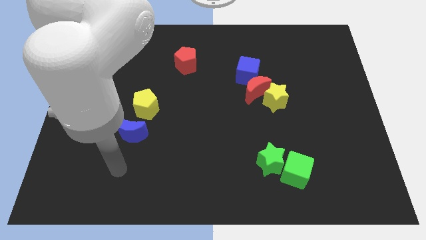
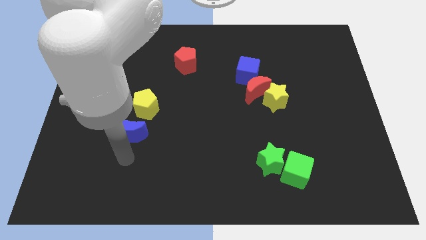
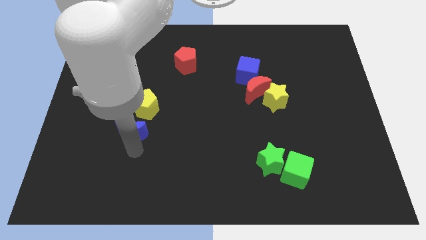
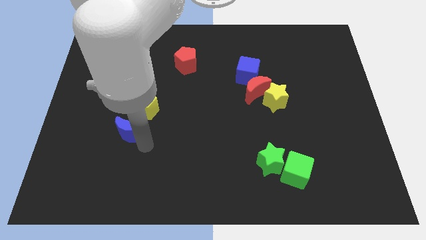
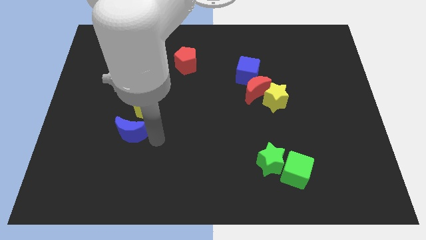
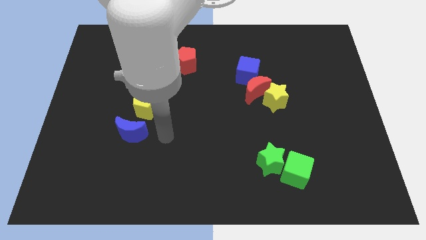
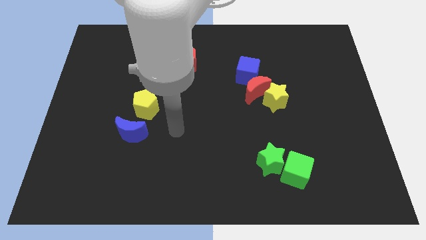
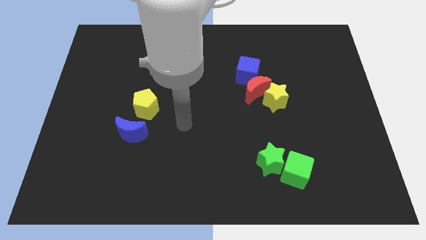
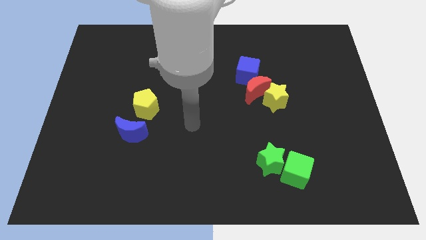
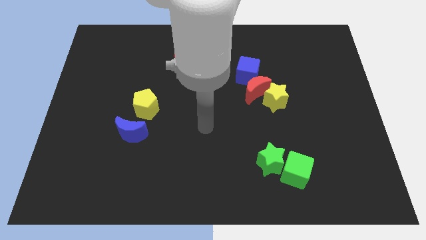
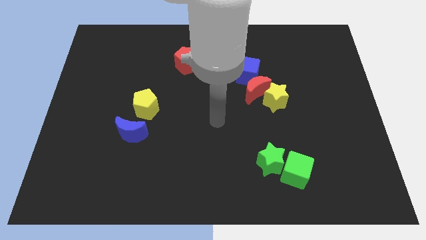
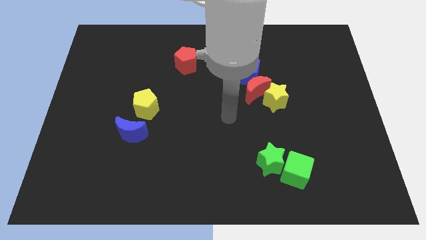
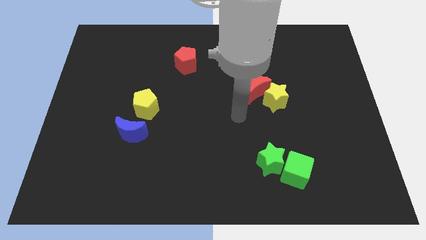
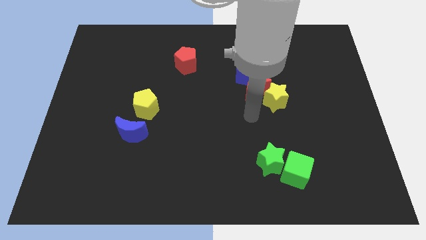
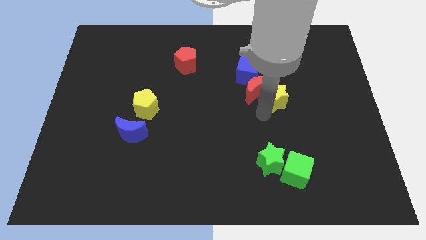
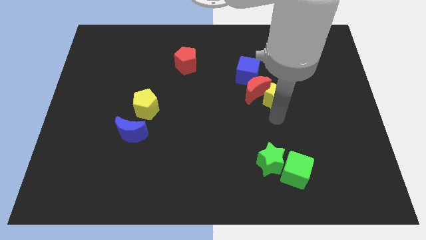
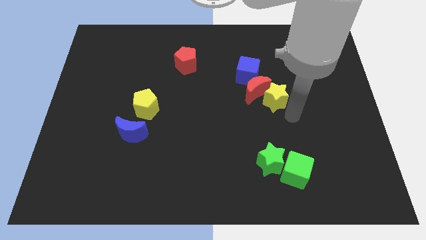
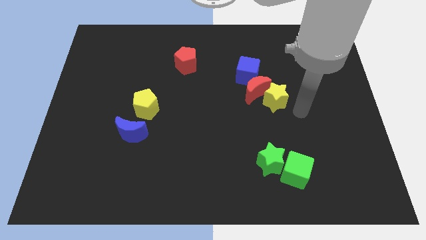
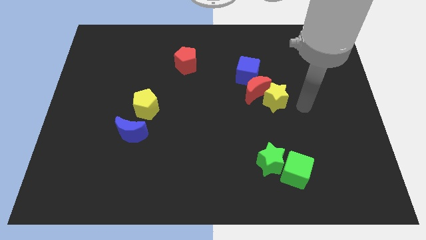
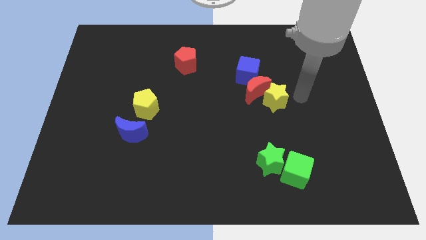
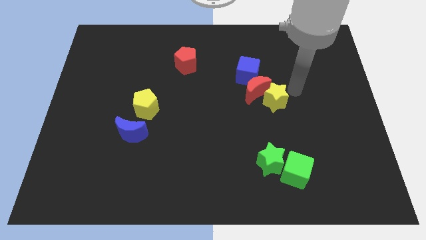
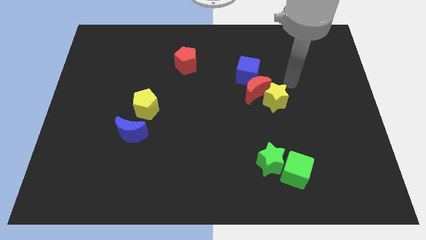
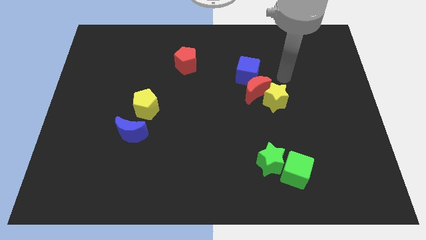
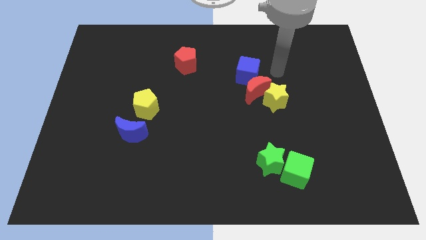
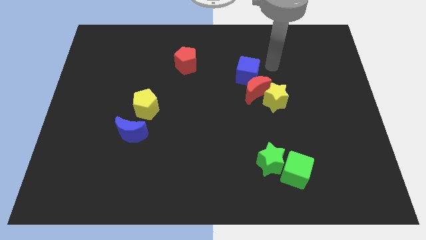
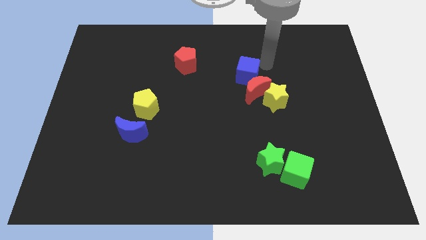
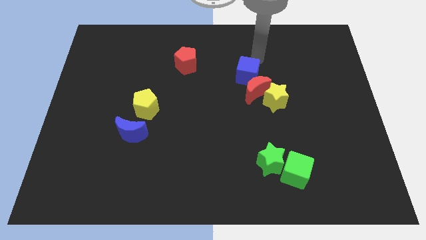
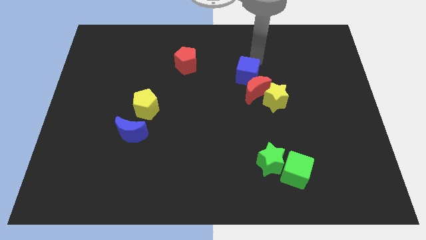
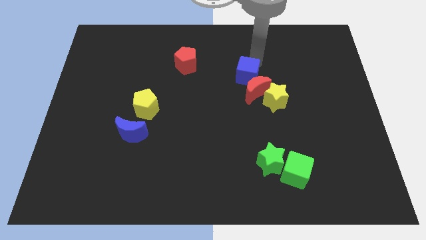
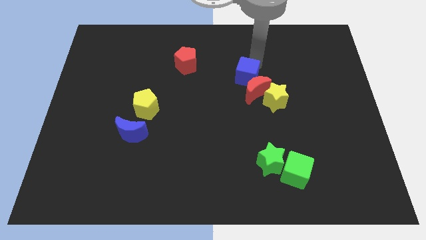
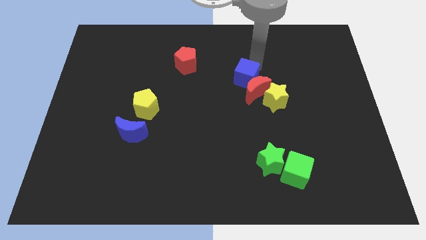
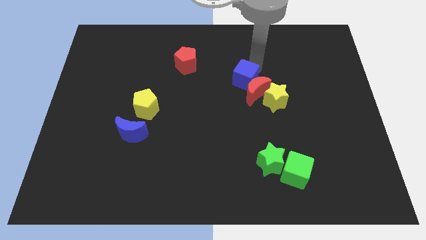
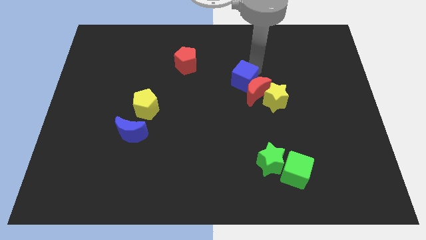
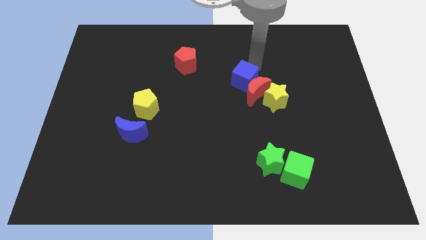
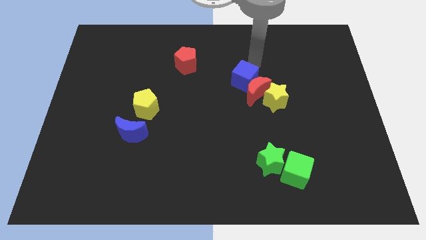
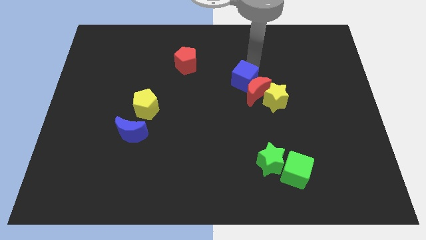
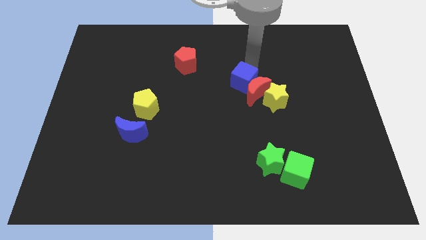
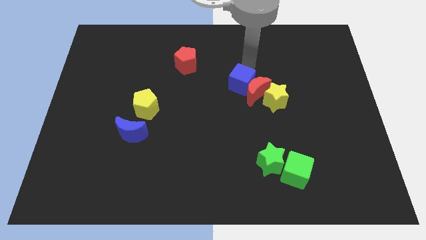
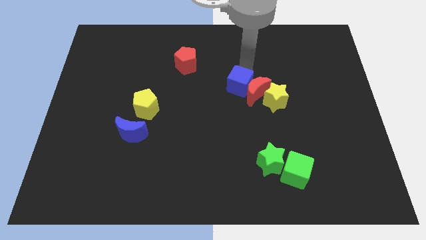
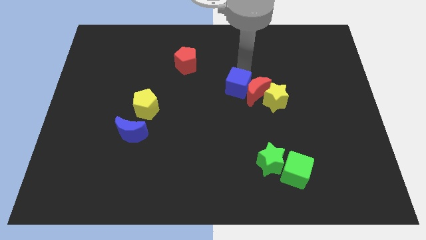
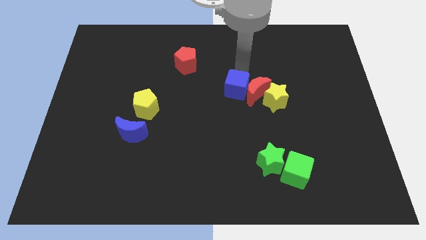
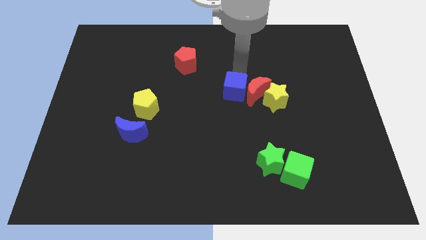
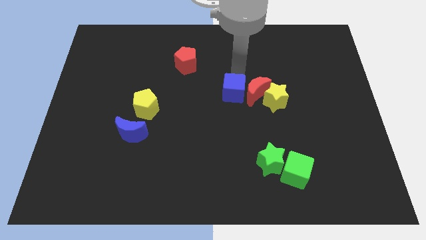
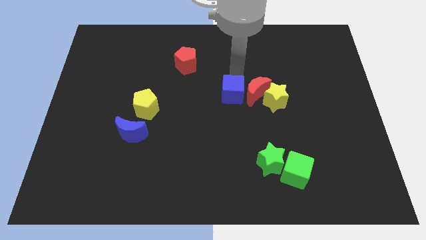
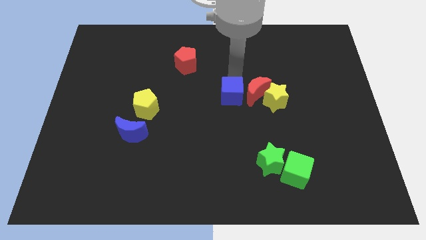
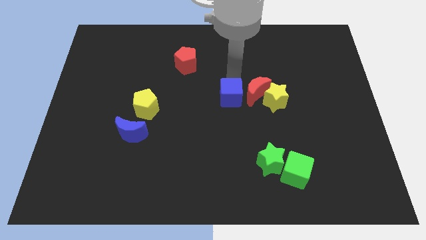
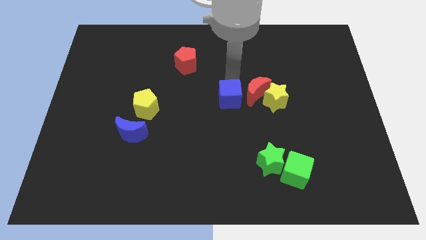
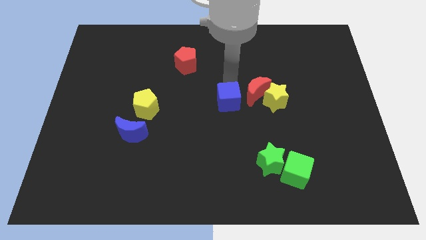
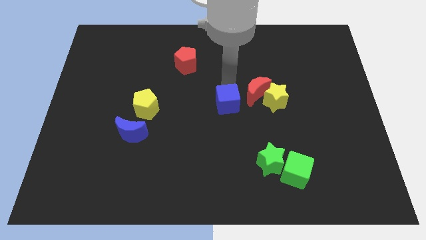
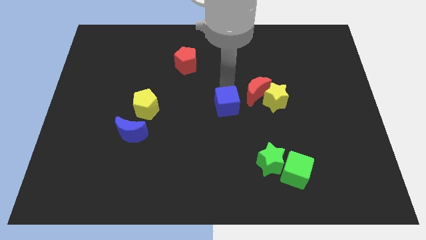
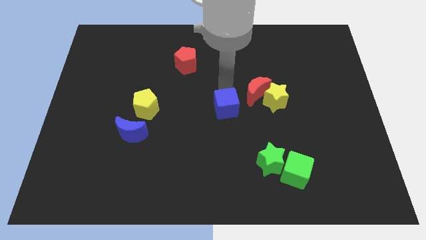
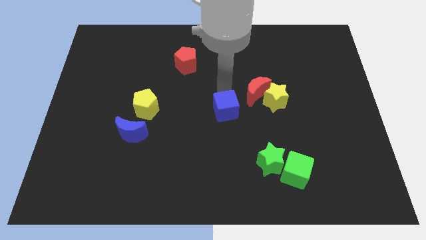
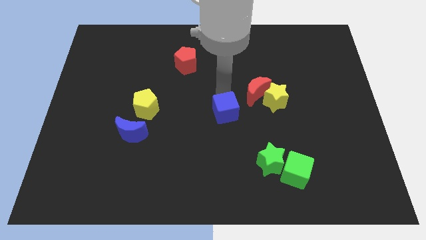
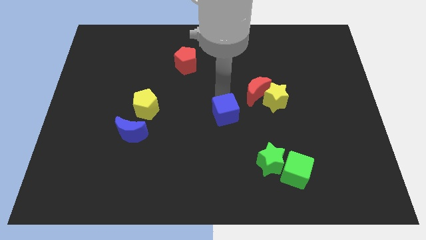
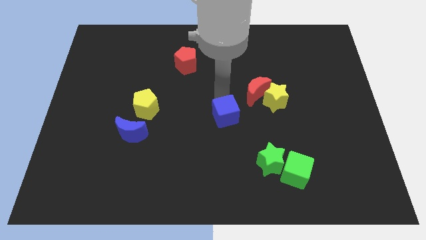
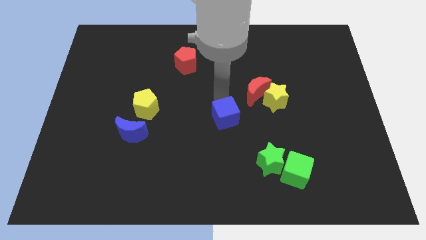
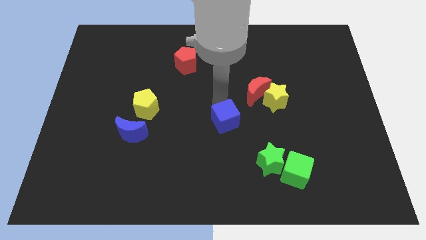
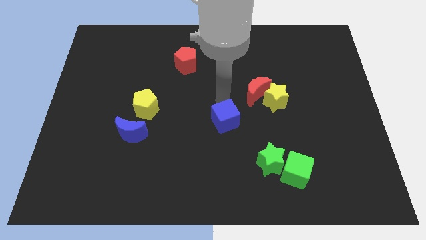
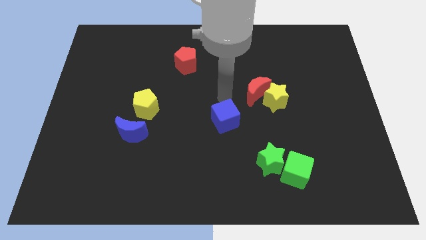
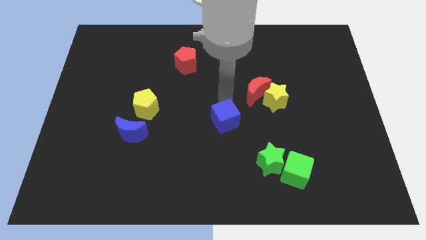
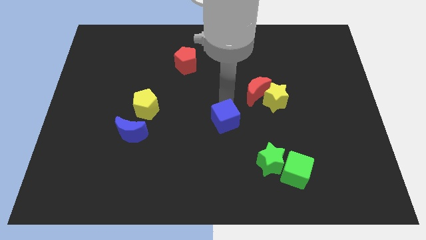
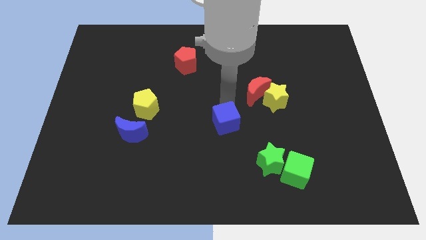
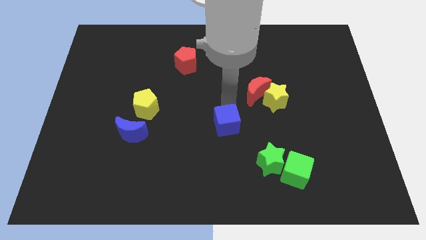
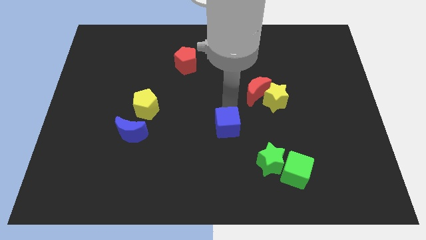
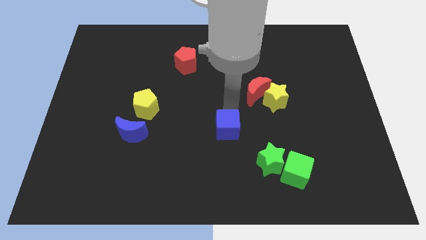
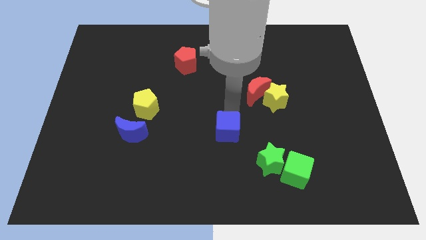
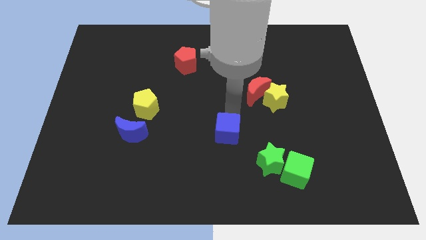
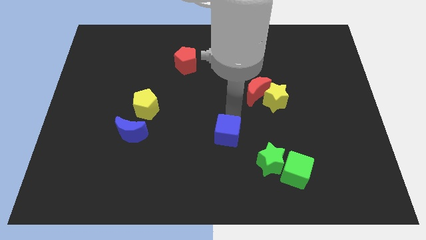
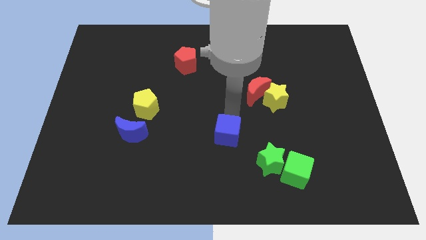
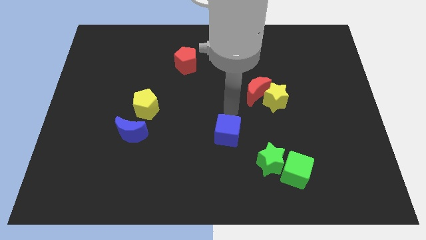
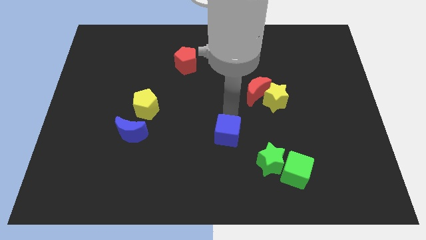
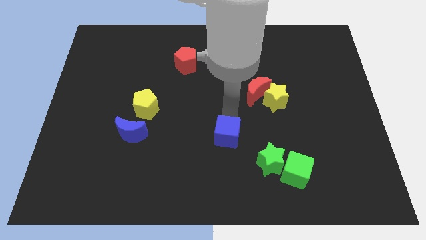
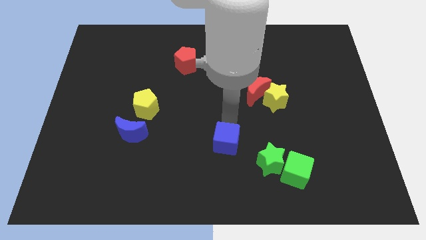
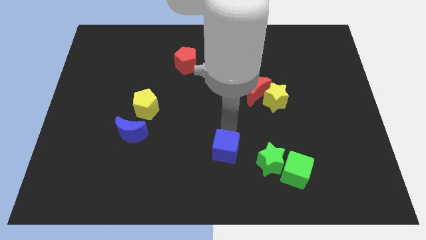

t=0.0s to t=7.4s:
push the blue cube just left of the green star

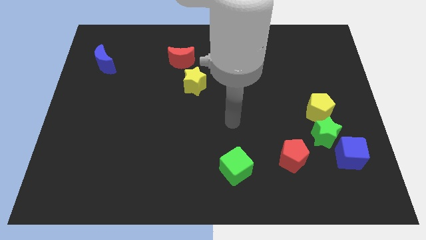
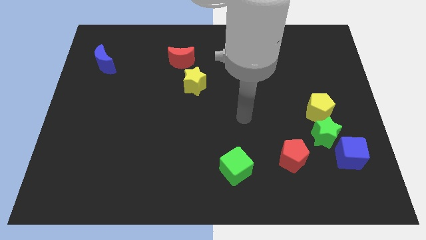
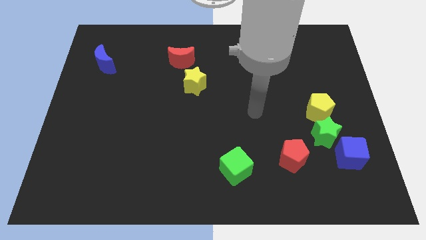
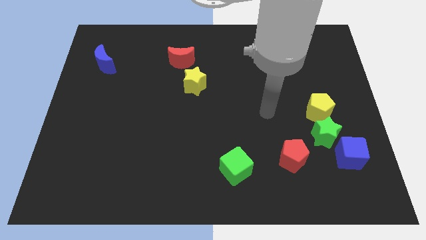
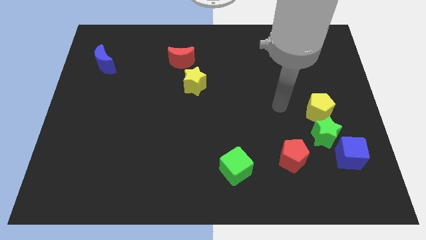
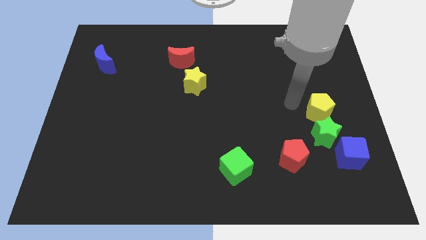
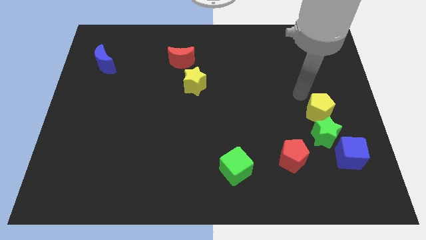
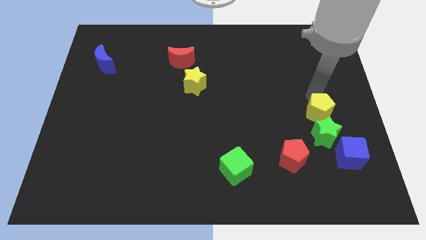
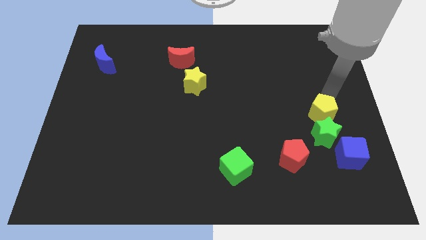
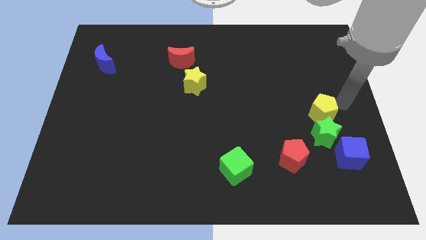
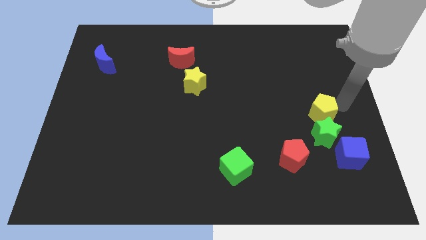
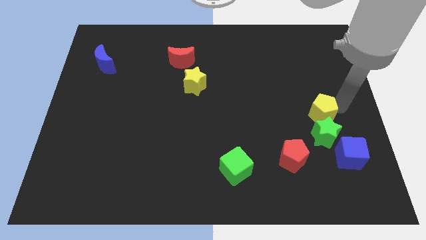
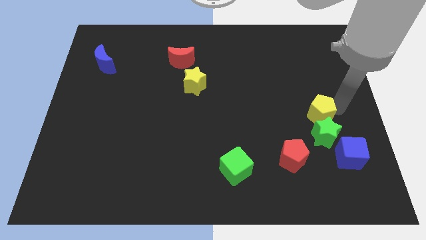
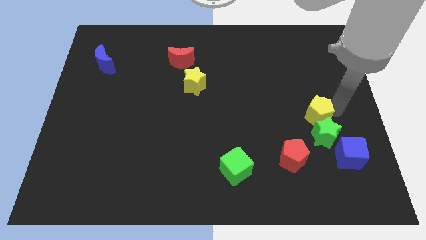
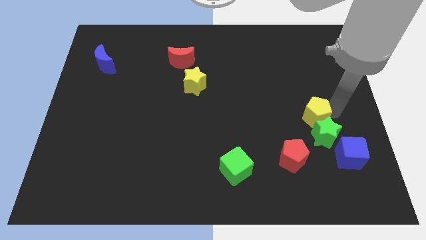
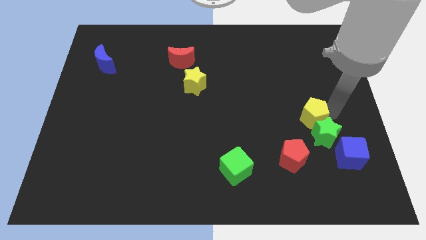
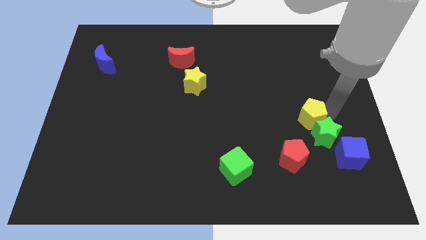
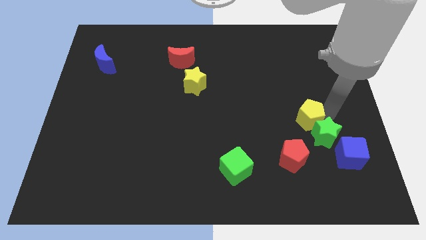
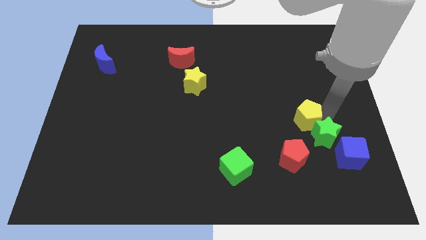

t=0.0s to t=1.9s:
slide the yellow pentagon left of the green star
